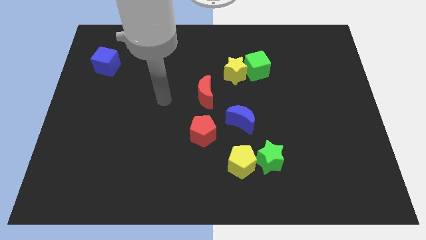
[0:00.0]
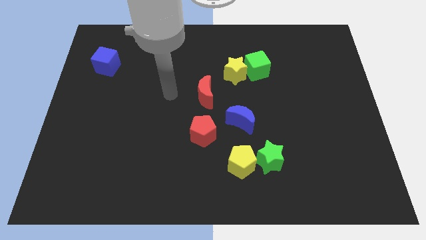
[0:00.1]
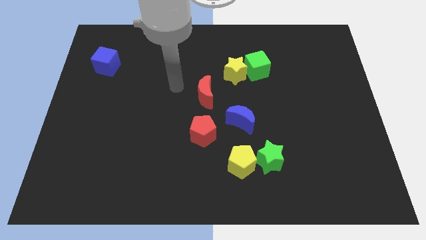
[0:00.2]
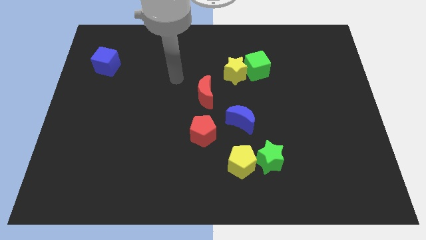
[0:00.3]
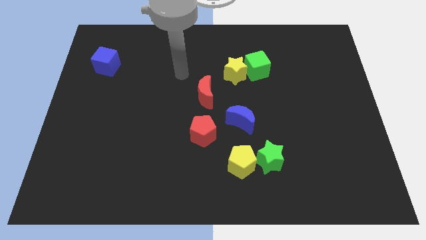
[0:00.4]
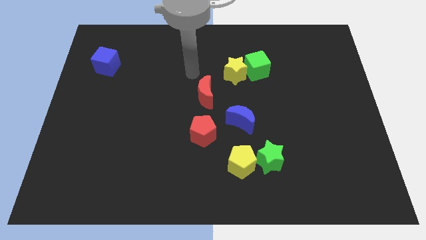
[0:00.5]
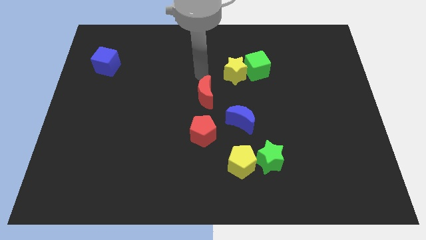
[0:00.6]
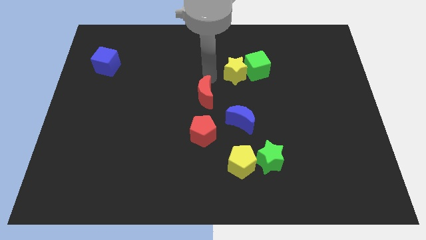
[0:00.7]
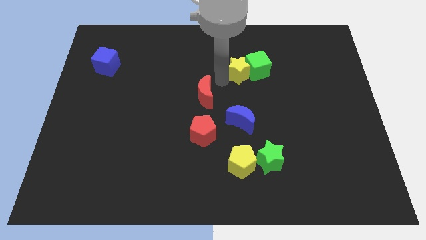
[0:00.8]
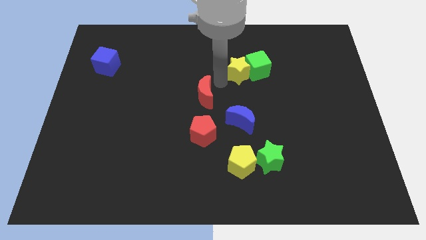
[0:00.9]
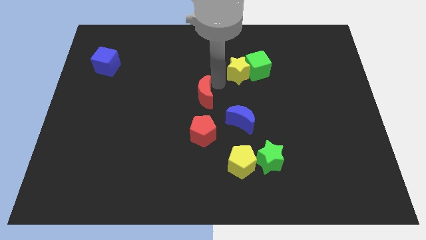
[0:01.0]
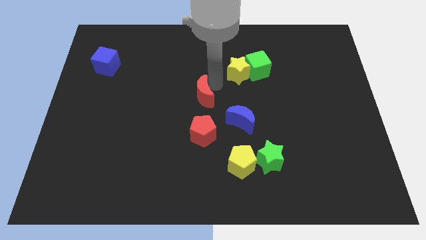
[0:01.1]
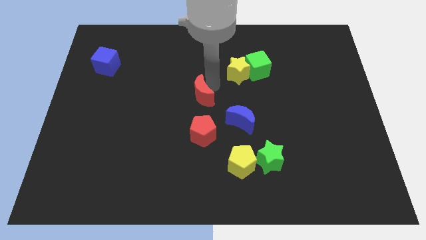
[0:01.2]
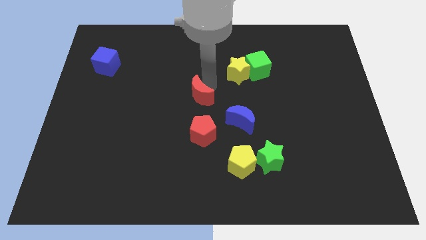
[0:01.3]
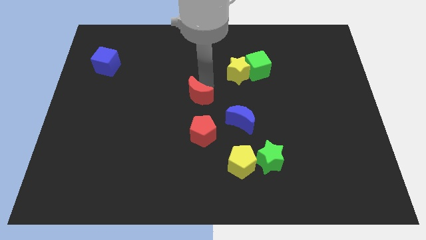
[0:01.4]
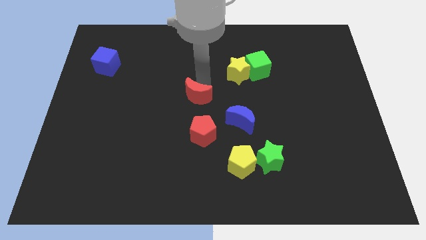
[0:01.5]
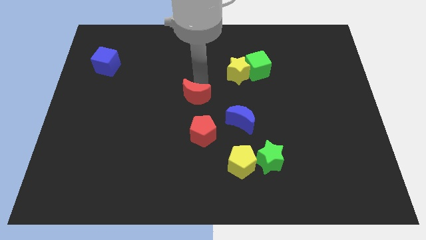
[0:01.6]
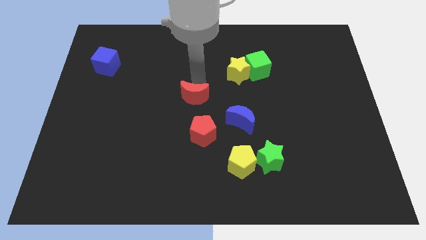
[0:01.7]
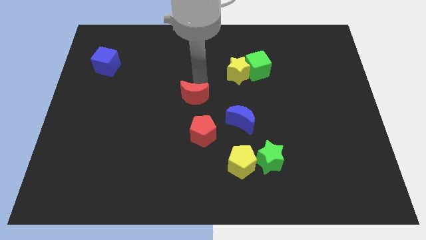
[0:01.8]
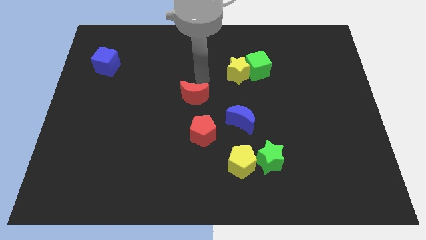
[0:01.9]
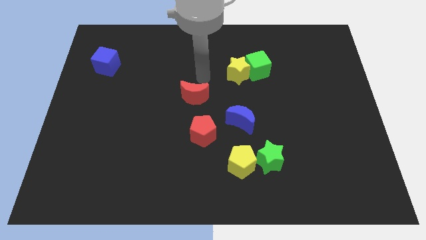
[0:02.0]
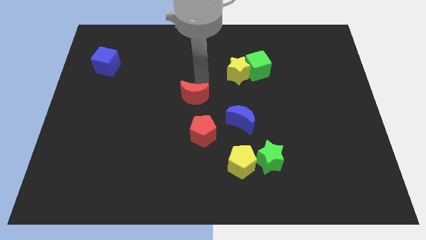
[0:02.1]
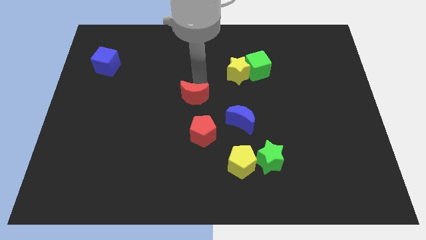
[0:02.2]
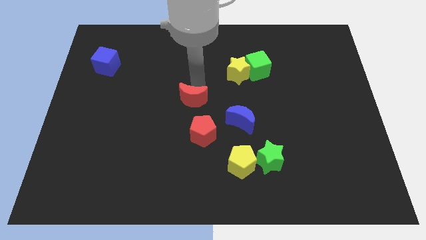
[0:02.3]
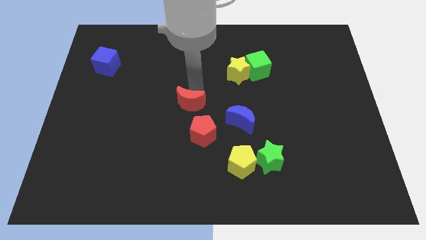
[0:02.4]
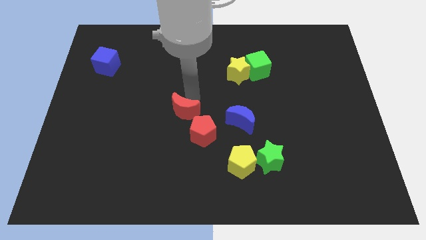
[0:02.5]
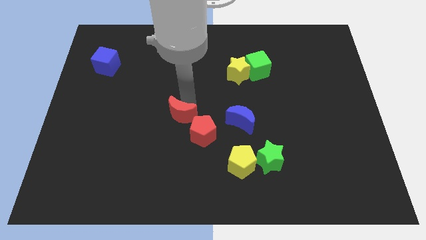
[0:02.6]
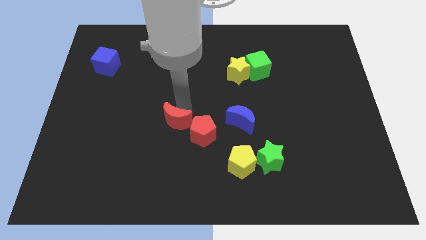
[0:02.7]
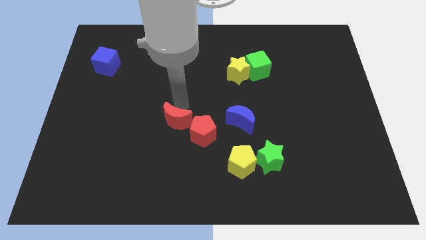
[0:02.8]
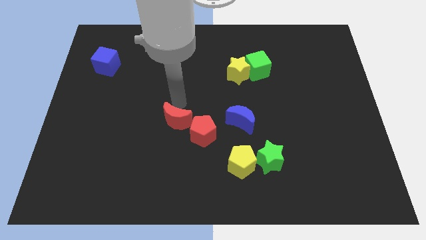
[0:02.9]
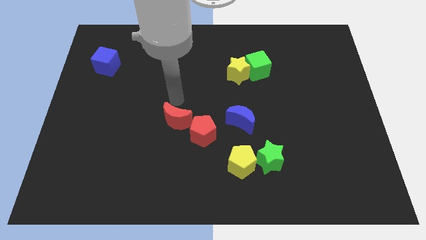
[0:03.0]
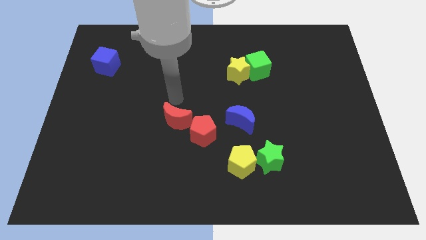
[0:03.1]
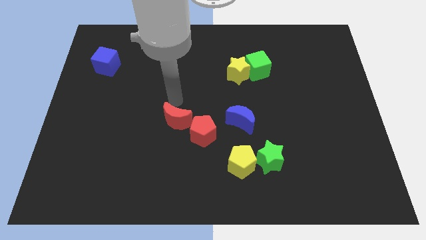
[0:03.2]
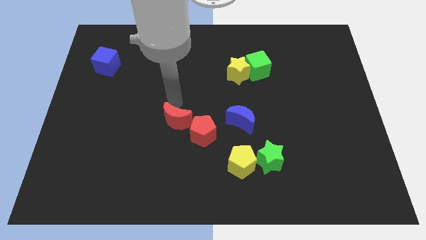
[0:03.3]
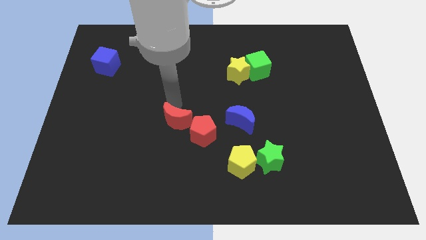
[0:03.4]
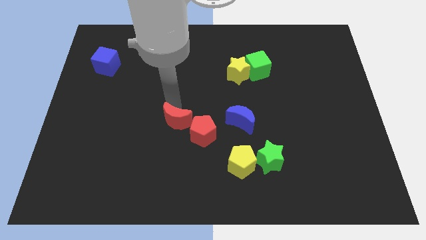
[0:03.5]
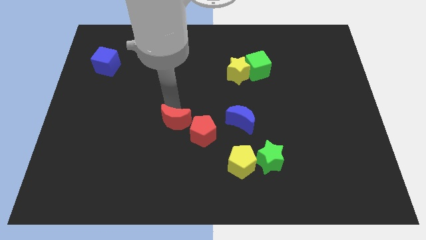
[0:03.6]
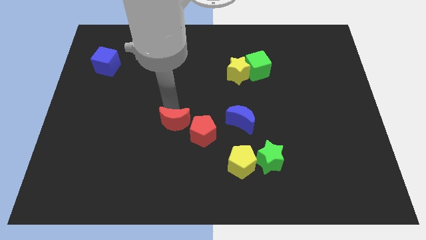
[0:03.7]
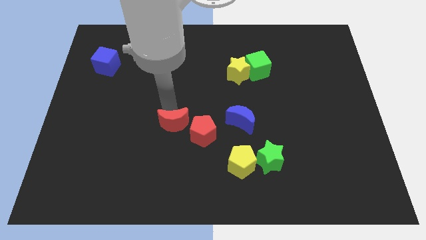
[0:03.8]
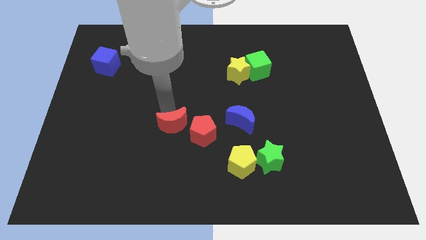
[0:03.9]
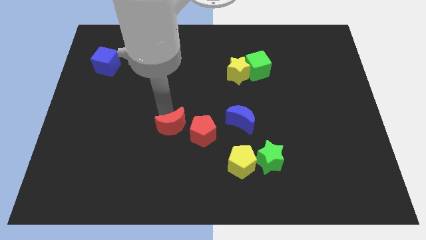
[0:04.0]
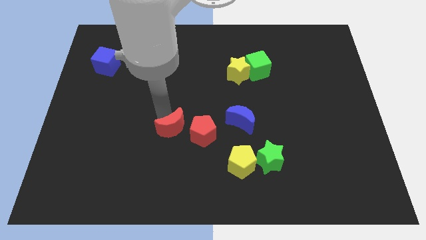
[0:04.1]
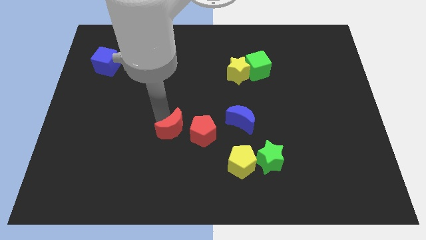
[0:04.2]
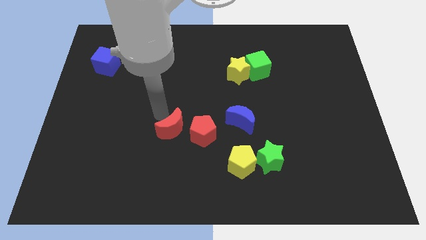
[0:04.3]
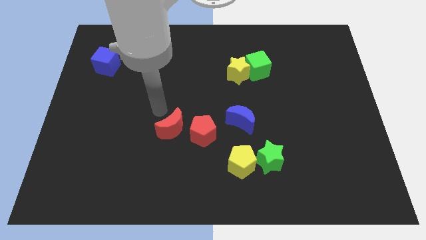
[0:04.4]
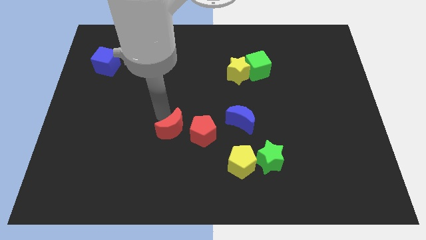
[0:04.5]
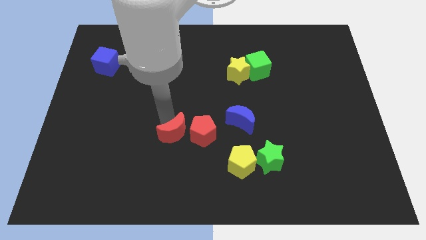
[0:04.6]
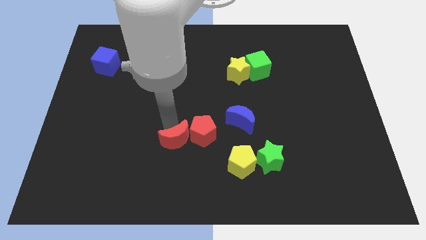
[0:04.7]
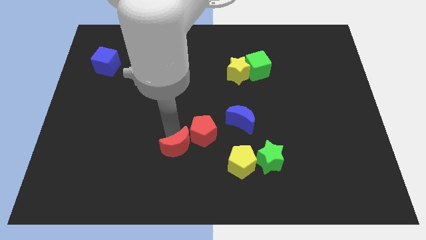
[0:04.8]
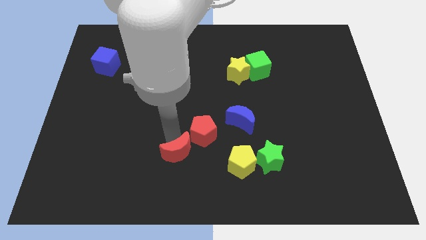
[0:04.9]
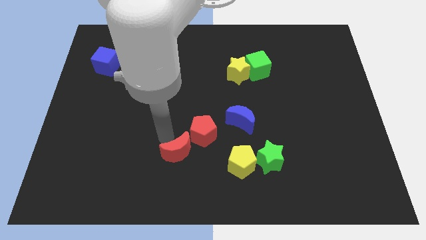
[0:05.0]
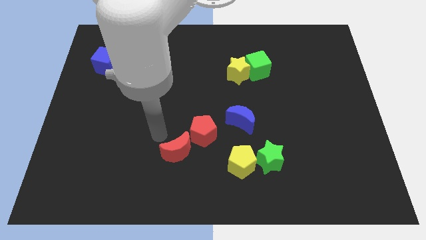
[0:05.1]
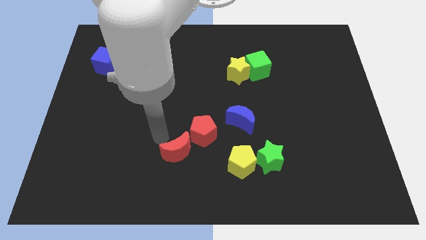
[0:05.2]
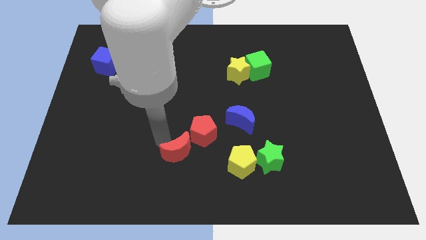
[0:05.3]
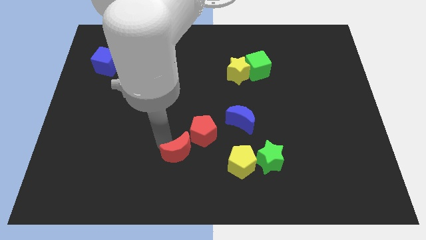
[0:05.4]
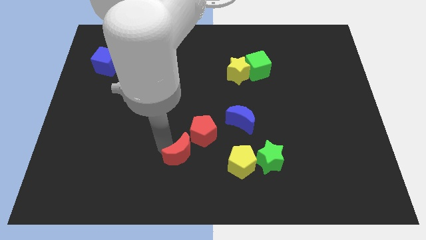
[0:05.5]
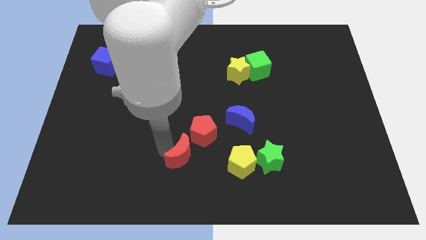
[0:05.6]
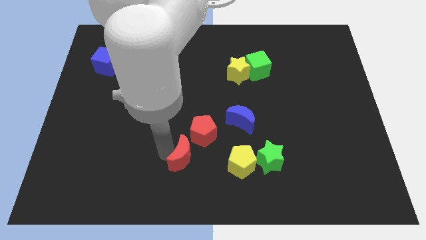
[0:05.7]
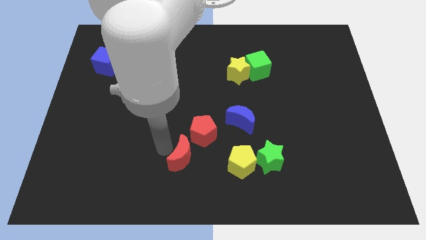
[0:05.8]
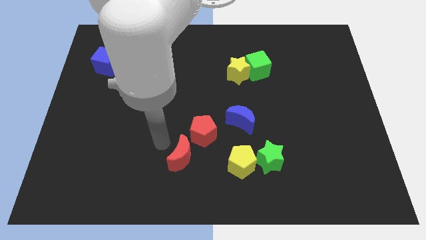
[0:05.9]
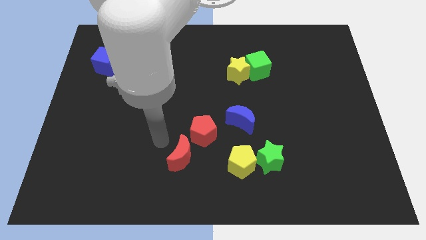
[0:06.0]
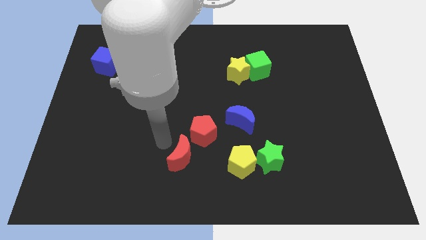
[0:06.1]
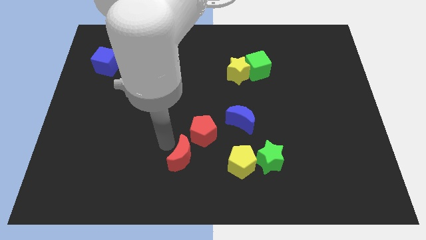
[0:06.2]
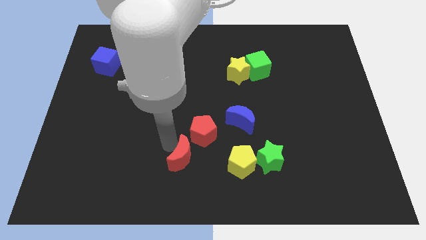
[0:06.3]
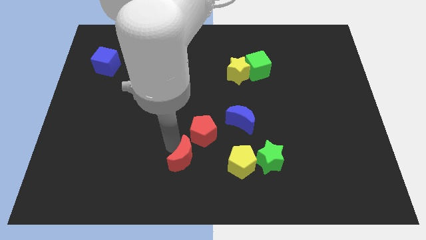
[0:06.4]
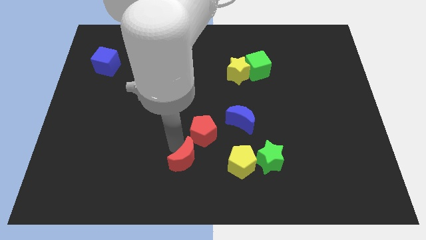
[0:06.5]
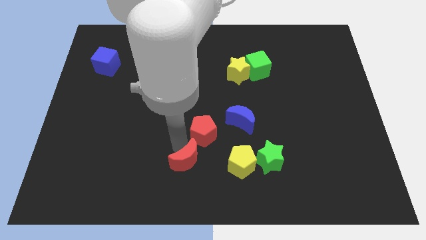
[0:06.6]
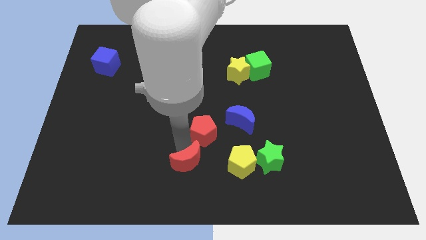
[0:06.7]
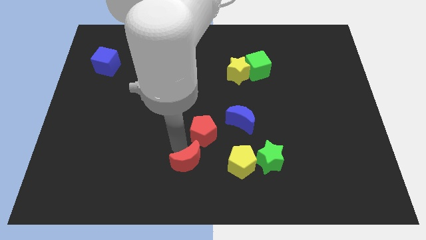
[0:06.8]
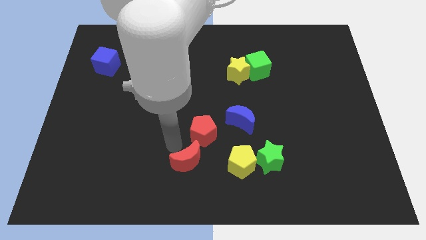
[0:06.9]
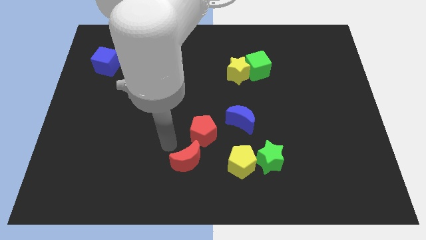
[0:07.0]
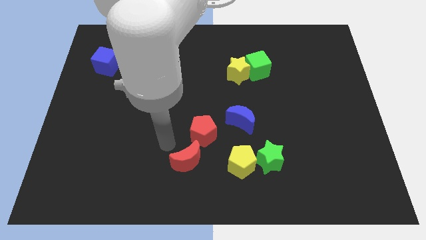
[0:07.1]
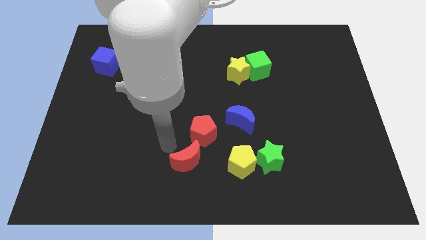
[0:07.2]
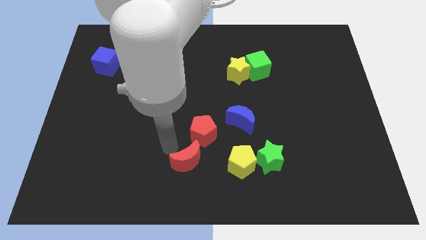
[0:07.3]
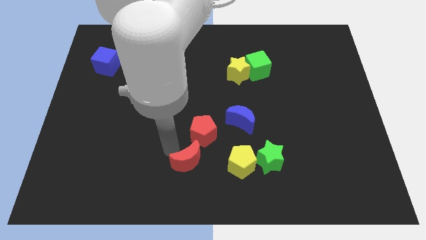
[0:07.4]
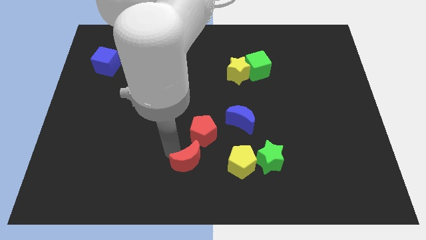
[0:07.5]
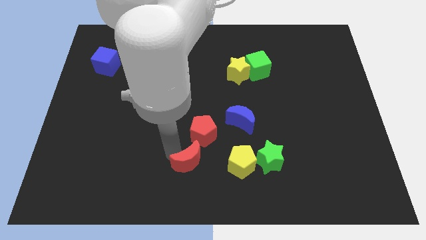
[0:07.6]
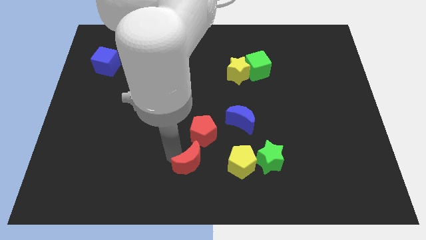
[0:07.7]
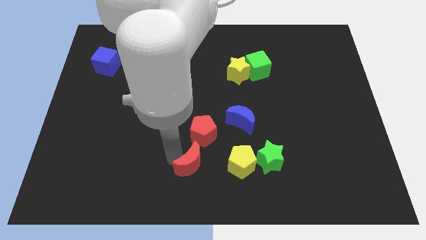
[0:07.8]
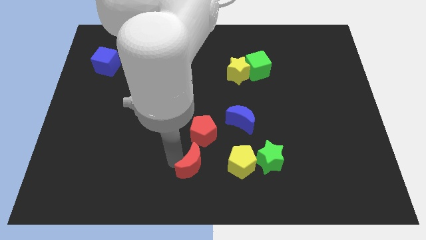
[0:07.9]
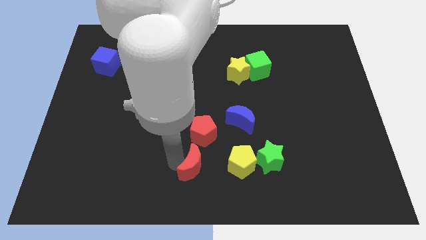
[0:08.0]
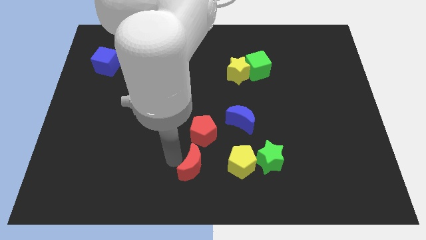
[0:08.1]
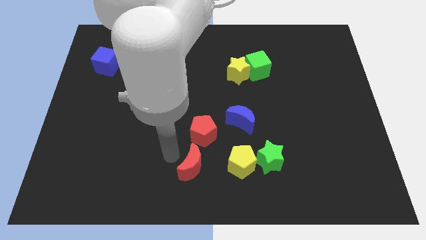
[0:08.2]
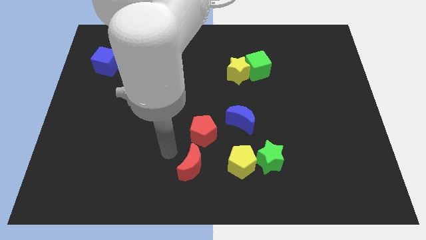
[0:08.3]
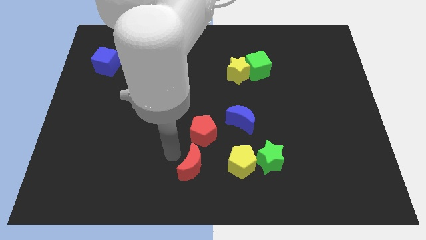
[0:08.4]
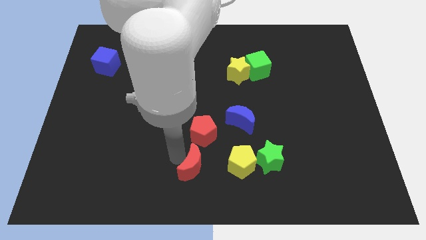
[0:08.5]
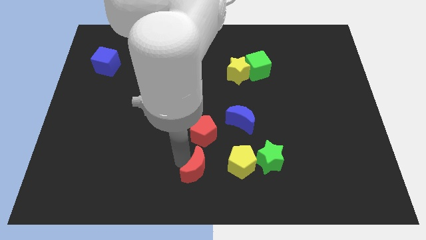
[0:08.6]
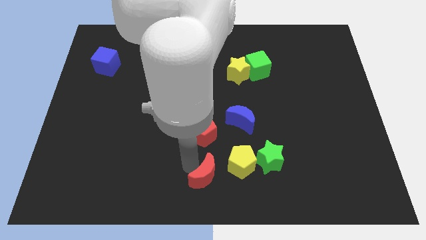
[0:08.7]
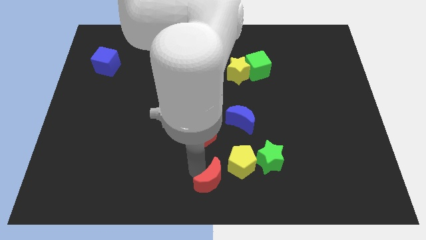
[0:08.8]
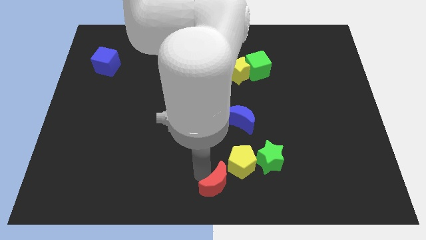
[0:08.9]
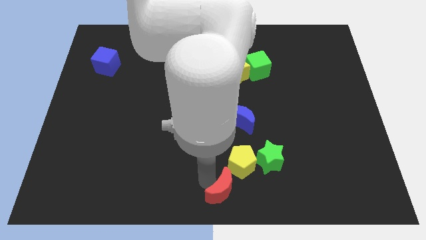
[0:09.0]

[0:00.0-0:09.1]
move the red moon to the bottom left side of the green star
